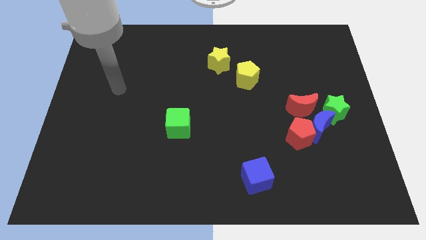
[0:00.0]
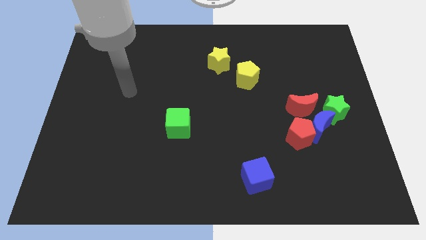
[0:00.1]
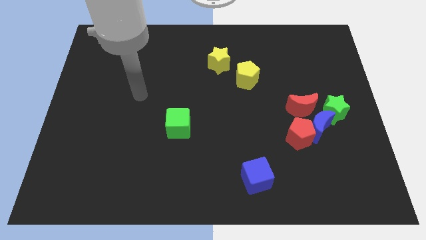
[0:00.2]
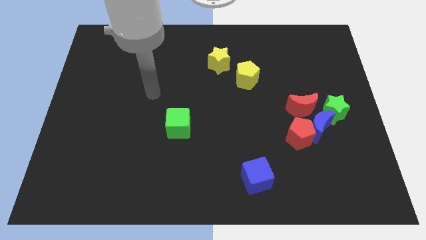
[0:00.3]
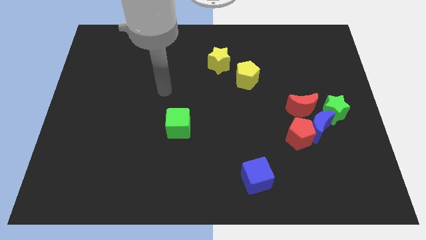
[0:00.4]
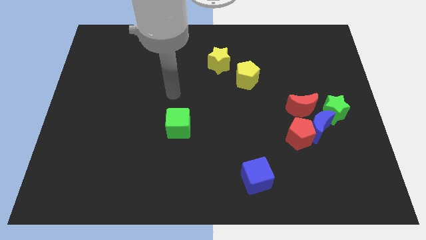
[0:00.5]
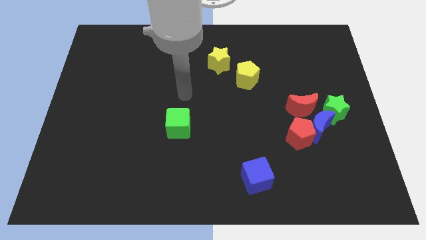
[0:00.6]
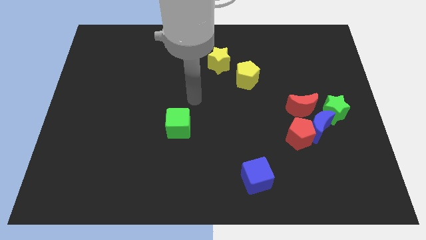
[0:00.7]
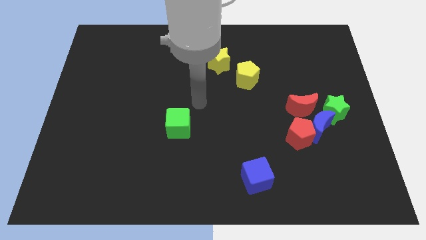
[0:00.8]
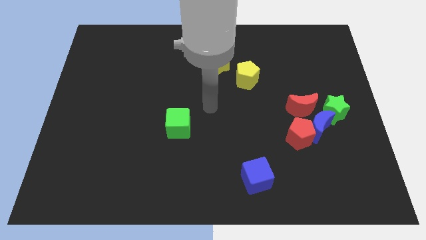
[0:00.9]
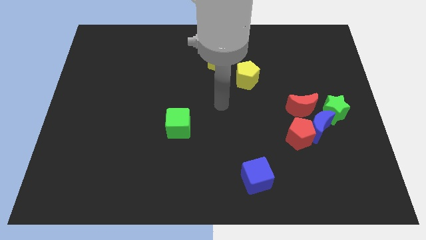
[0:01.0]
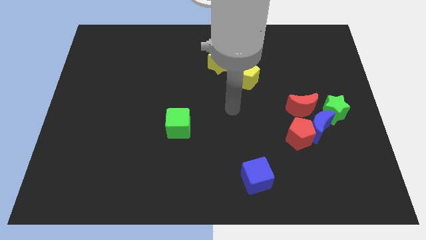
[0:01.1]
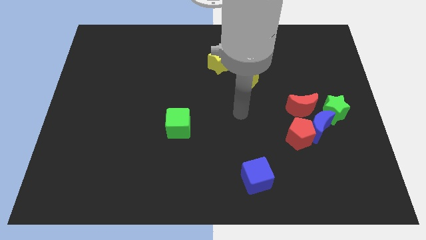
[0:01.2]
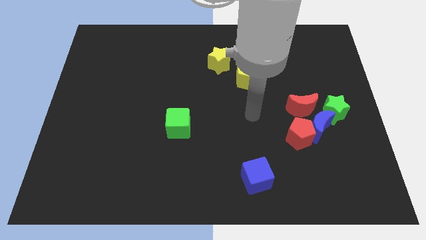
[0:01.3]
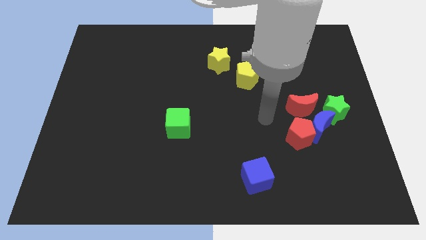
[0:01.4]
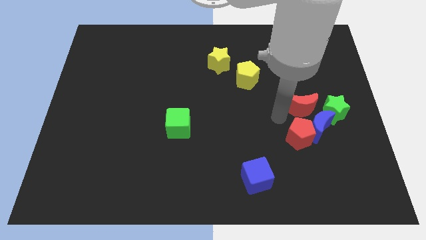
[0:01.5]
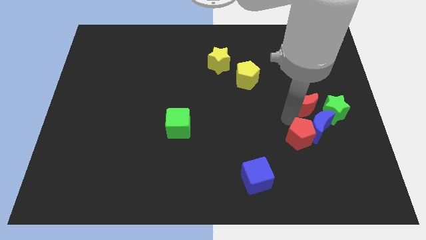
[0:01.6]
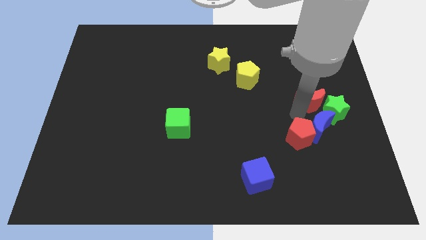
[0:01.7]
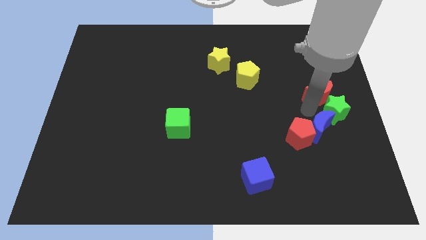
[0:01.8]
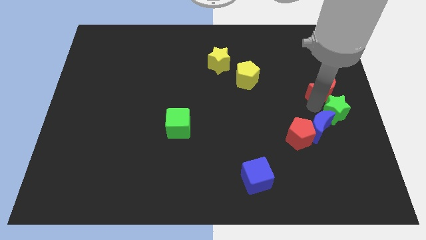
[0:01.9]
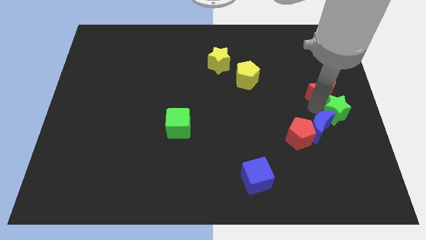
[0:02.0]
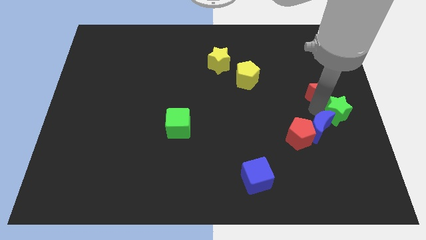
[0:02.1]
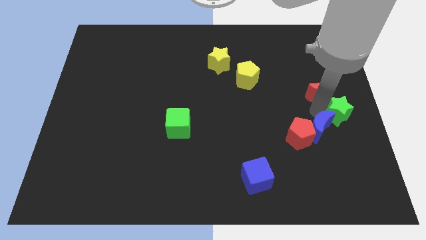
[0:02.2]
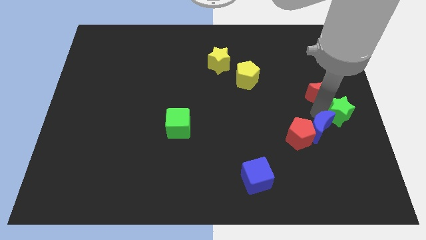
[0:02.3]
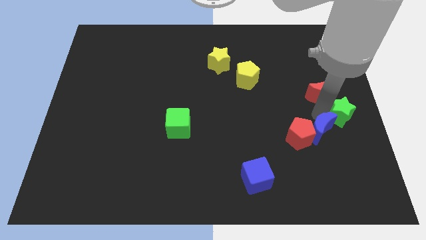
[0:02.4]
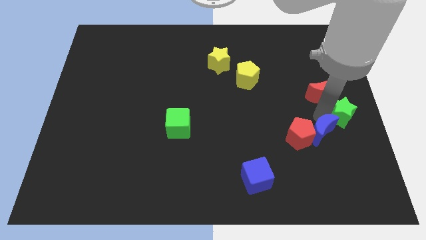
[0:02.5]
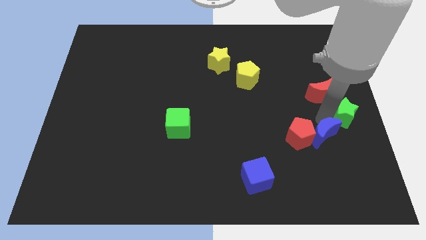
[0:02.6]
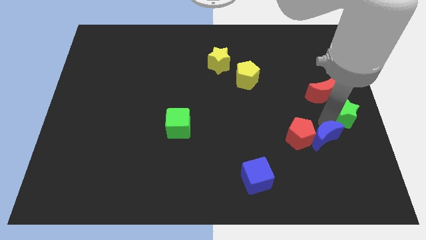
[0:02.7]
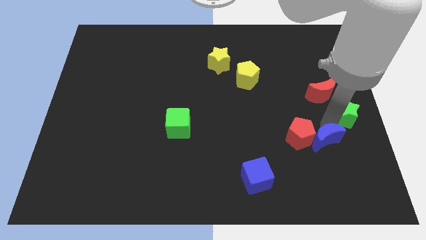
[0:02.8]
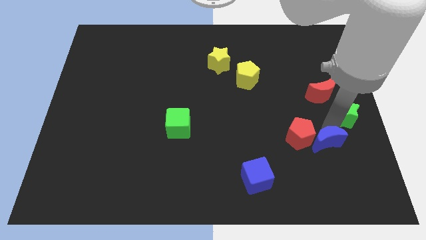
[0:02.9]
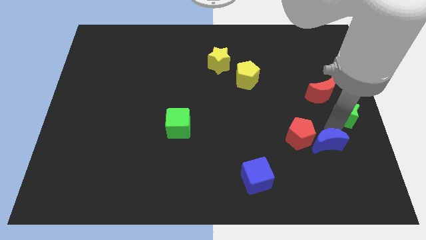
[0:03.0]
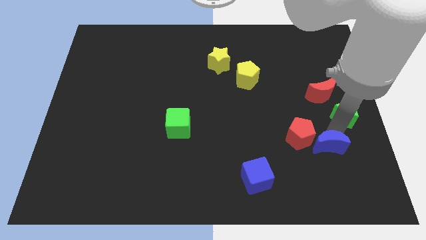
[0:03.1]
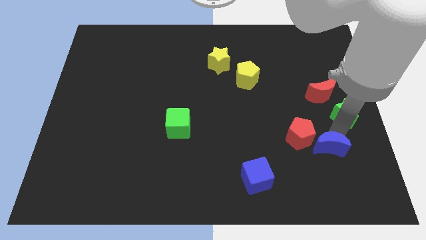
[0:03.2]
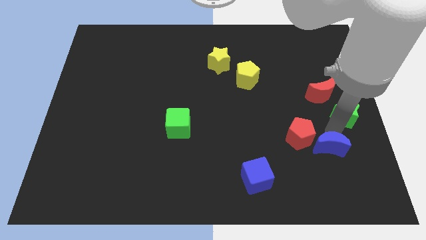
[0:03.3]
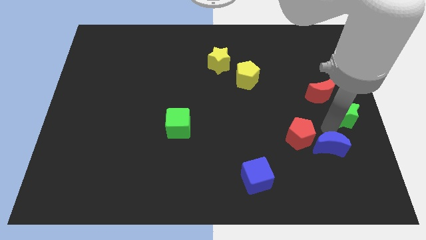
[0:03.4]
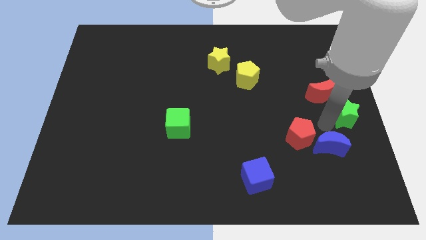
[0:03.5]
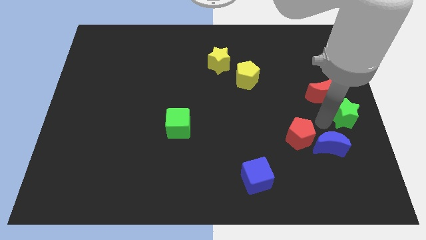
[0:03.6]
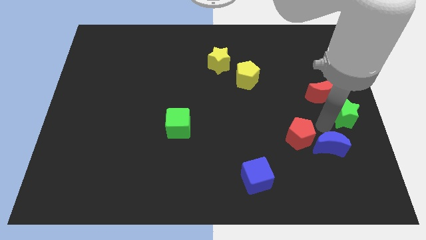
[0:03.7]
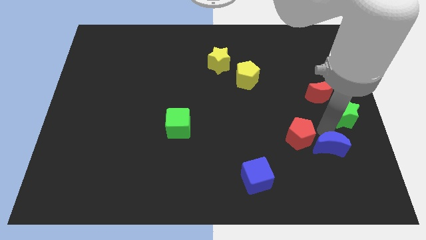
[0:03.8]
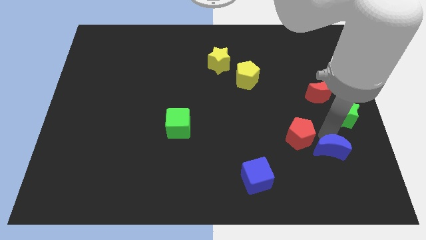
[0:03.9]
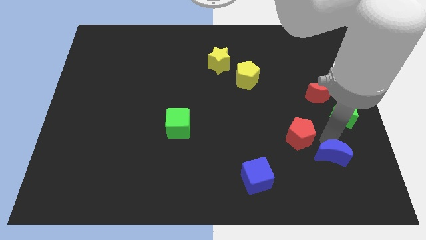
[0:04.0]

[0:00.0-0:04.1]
pull the blue moon apart from the clump

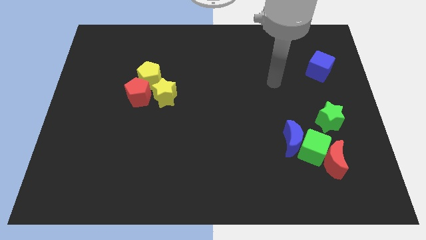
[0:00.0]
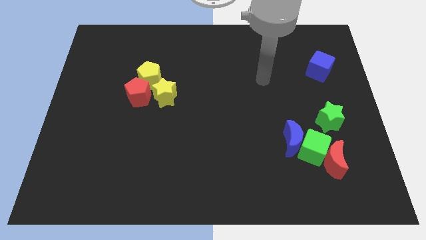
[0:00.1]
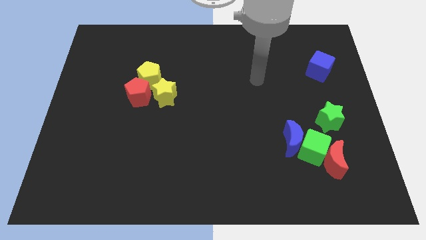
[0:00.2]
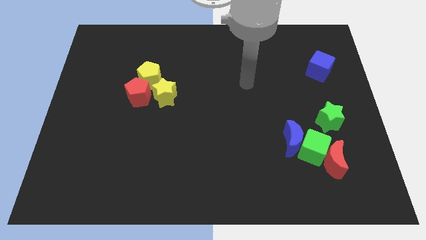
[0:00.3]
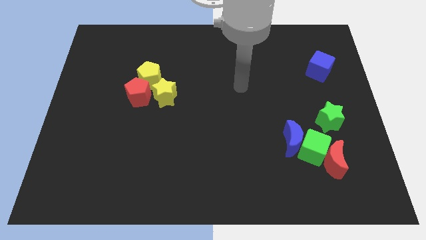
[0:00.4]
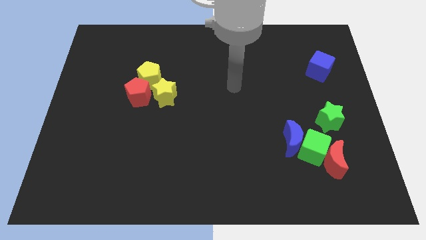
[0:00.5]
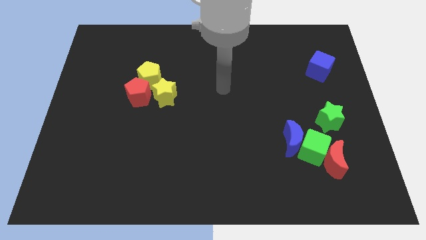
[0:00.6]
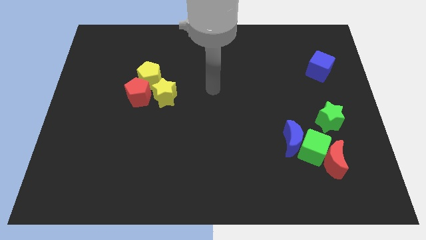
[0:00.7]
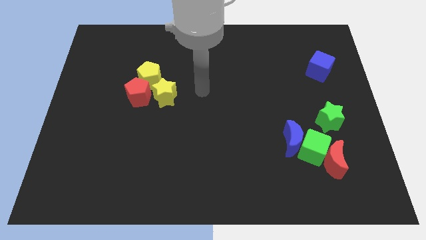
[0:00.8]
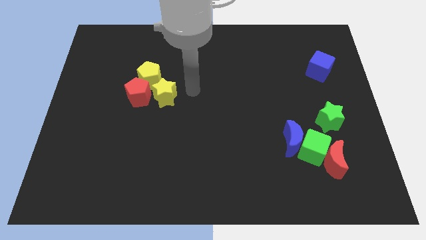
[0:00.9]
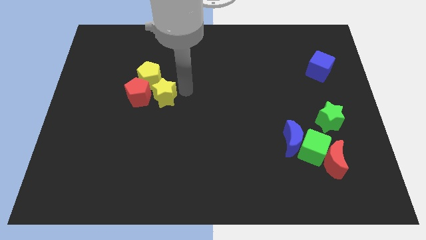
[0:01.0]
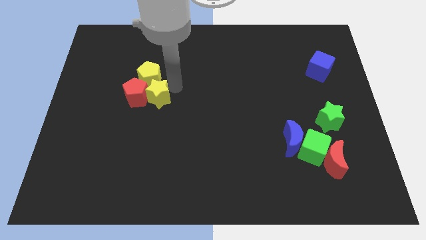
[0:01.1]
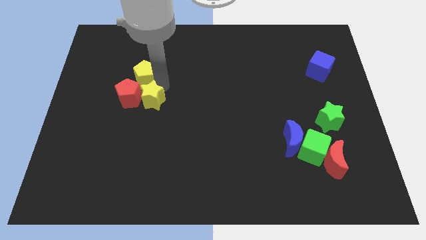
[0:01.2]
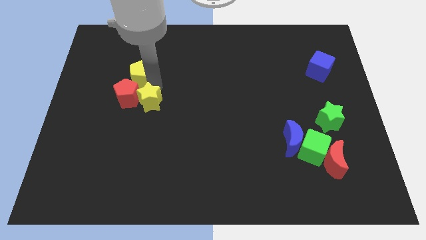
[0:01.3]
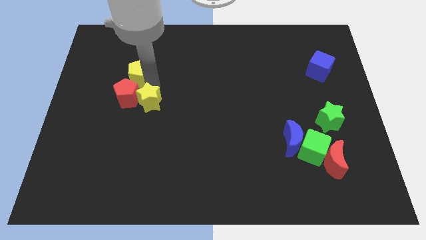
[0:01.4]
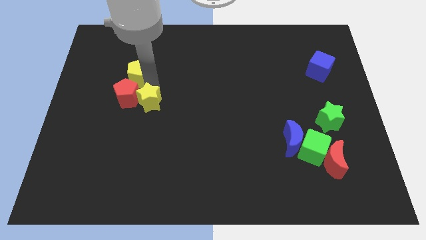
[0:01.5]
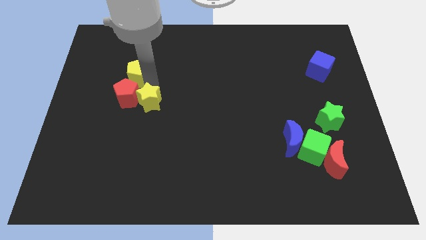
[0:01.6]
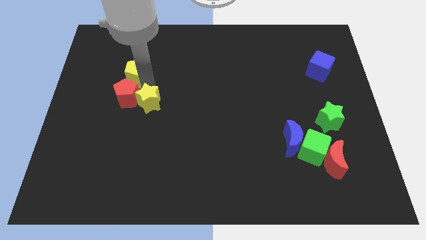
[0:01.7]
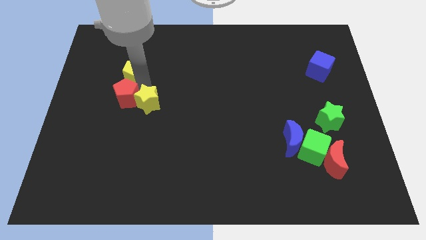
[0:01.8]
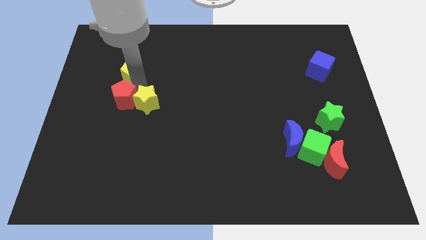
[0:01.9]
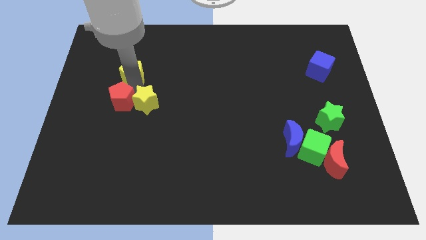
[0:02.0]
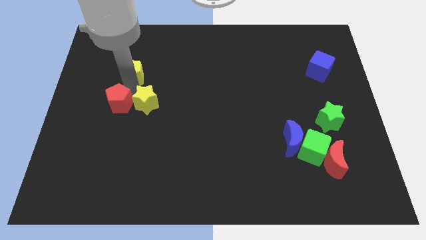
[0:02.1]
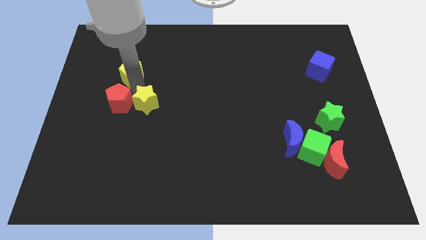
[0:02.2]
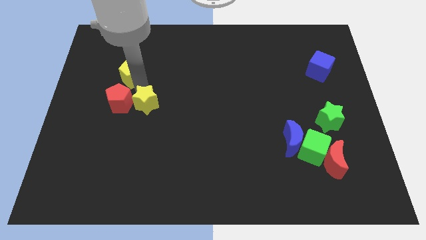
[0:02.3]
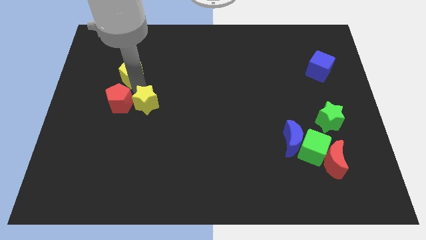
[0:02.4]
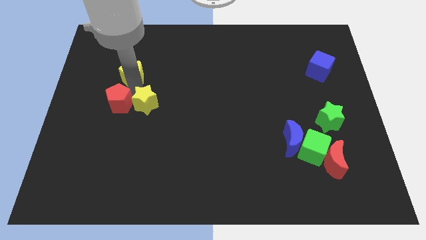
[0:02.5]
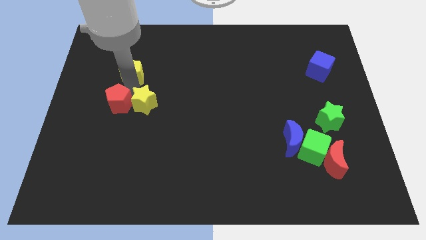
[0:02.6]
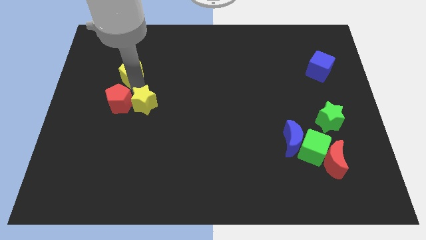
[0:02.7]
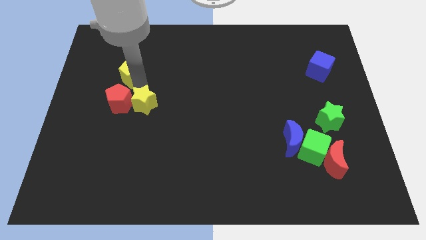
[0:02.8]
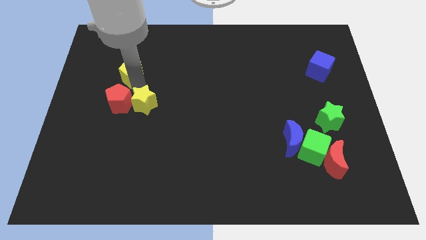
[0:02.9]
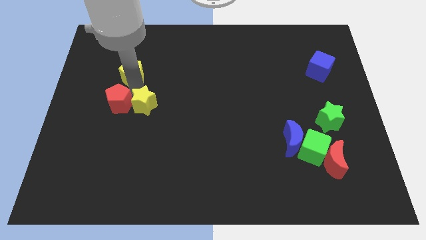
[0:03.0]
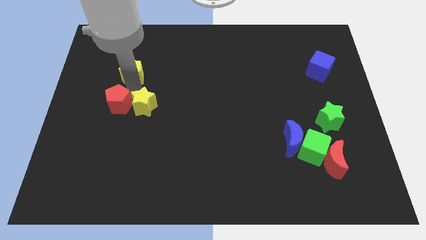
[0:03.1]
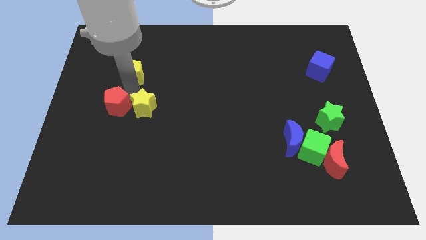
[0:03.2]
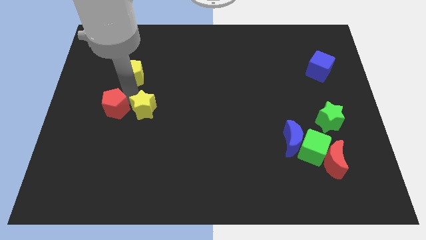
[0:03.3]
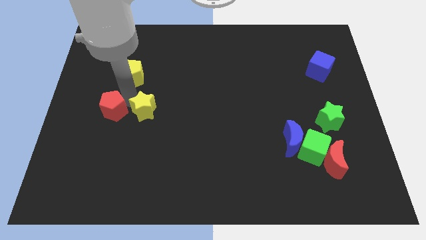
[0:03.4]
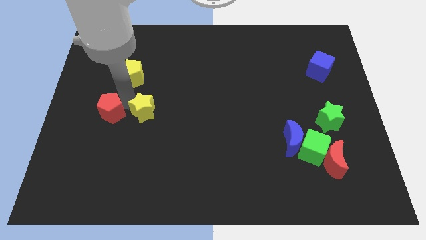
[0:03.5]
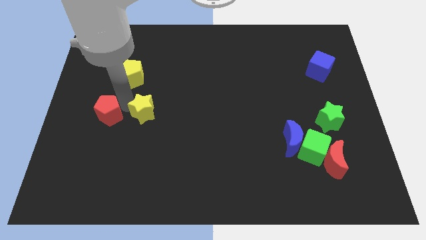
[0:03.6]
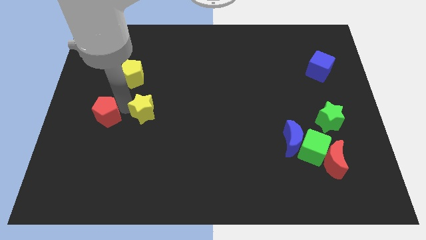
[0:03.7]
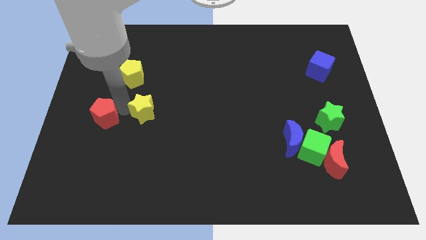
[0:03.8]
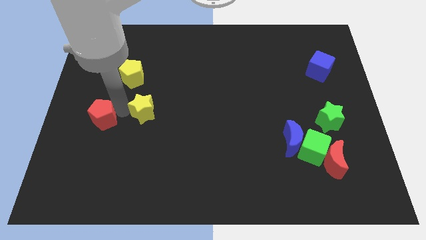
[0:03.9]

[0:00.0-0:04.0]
move the red pentagon away from the yellow pentagon and yellow star

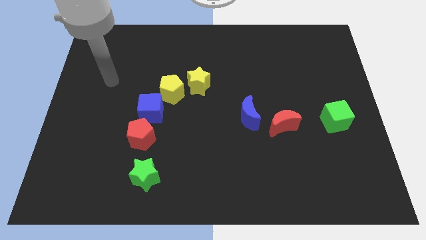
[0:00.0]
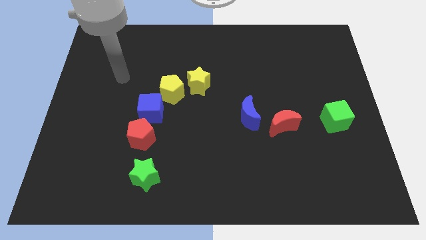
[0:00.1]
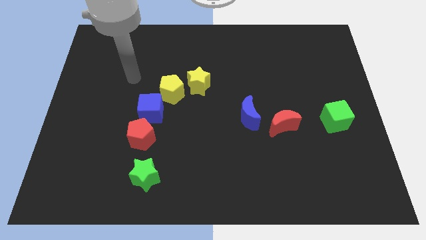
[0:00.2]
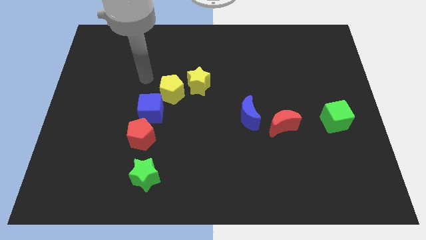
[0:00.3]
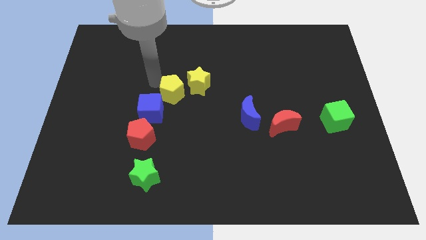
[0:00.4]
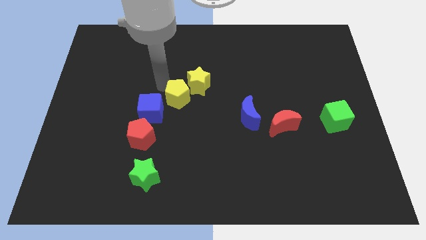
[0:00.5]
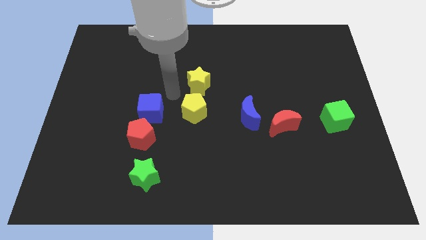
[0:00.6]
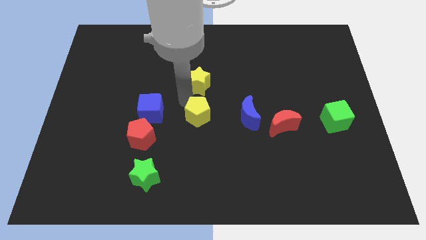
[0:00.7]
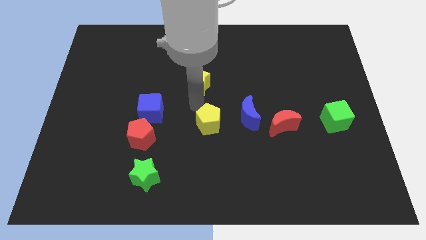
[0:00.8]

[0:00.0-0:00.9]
pull the yellow star apart from the yellow pentagon

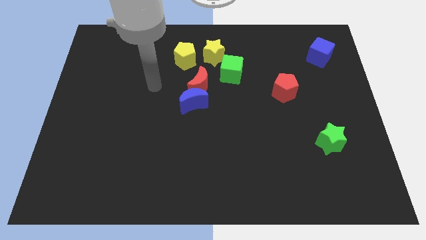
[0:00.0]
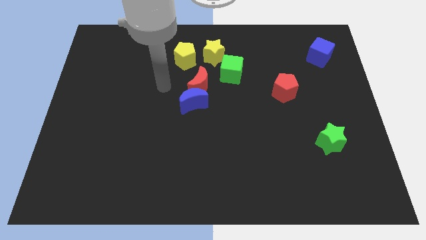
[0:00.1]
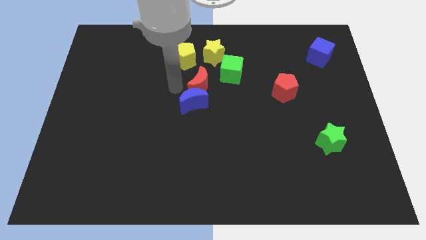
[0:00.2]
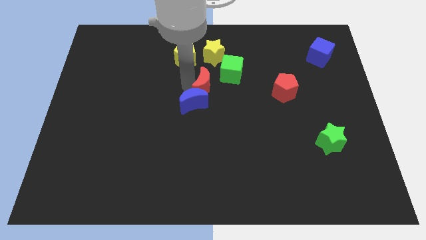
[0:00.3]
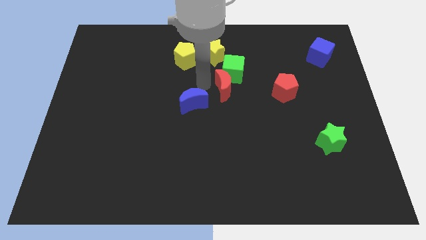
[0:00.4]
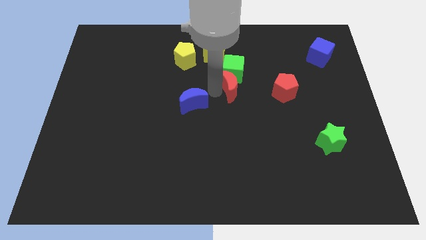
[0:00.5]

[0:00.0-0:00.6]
move the blue moon away from the red moon
